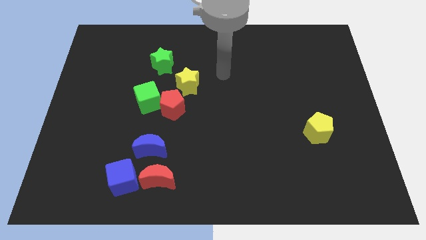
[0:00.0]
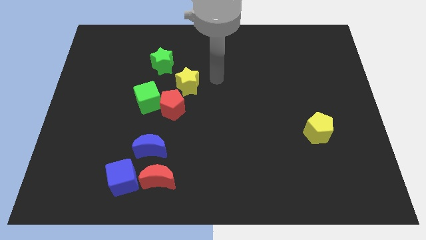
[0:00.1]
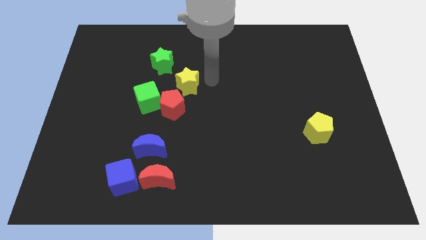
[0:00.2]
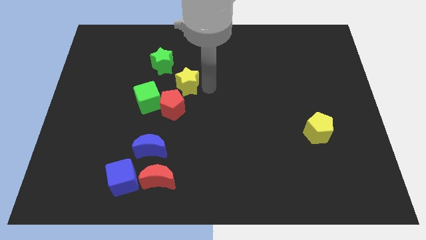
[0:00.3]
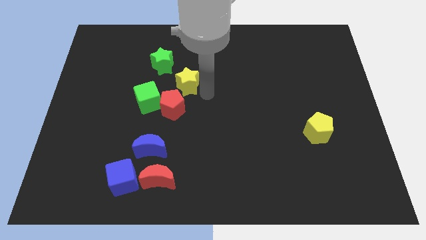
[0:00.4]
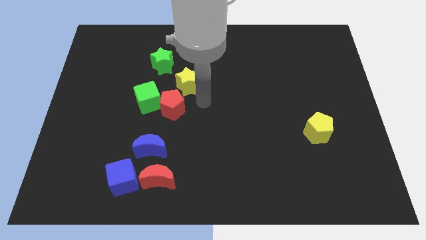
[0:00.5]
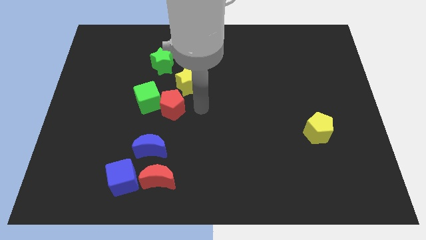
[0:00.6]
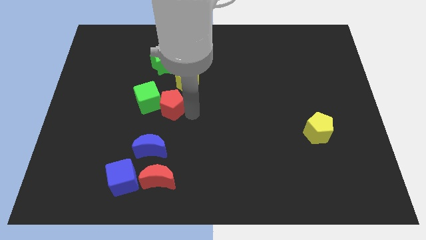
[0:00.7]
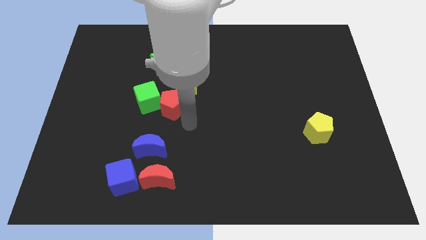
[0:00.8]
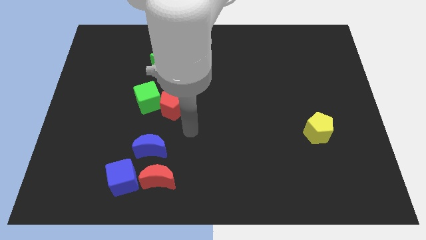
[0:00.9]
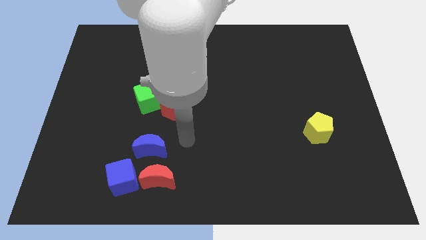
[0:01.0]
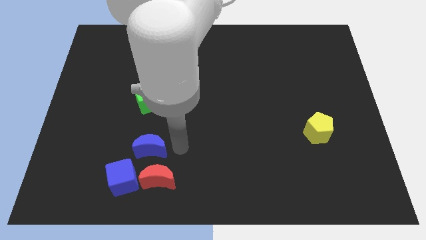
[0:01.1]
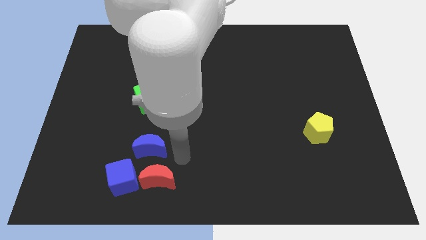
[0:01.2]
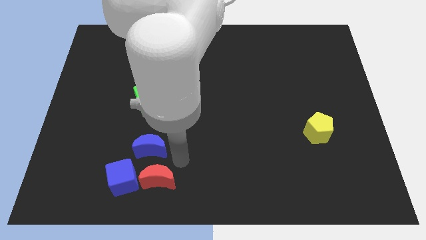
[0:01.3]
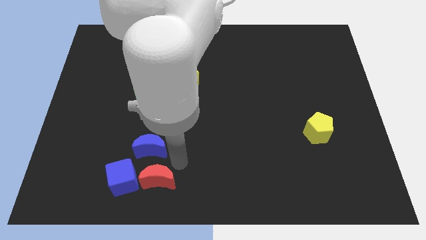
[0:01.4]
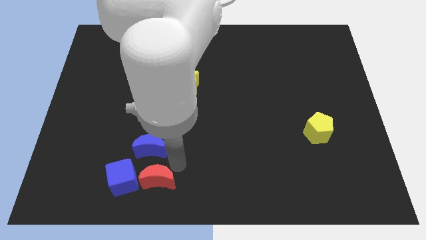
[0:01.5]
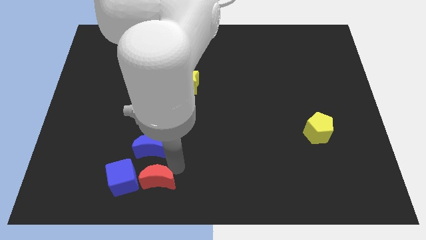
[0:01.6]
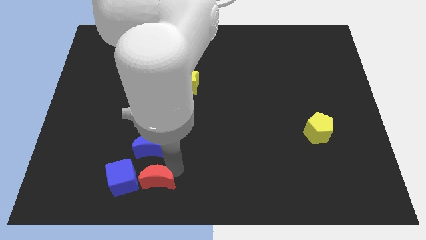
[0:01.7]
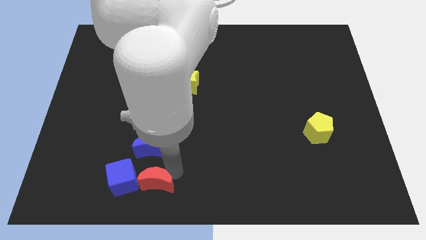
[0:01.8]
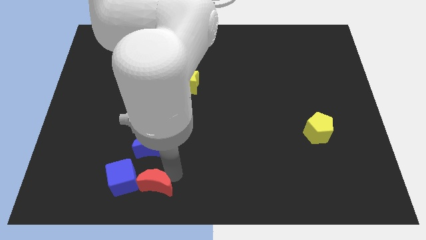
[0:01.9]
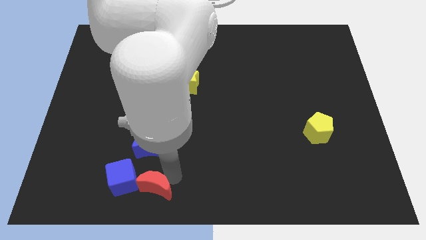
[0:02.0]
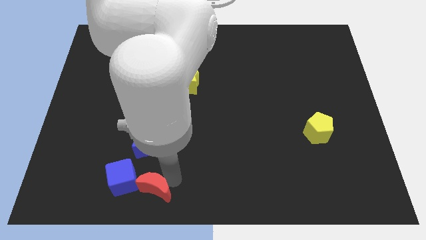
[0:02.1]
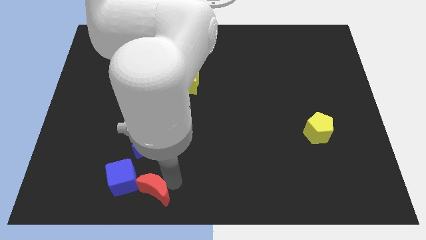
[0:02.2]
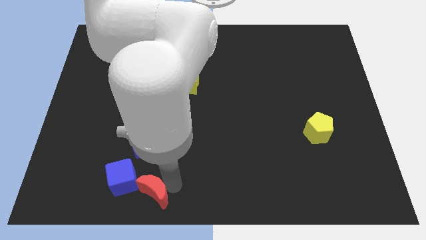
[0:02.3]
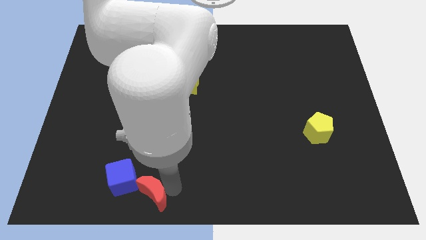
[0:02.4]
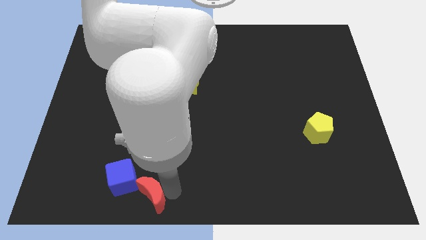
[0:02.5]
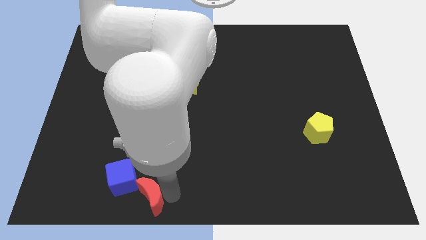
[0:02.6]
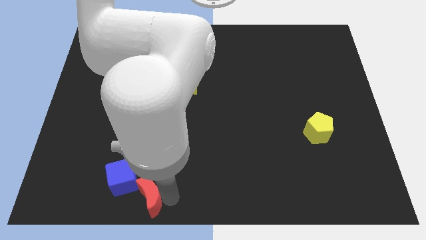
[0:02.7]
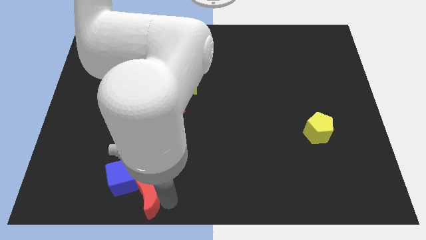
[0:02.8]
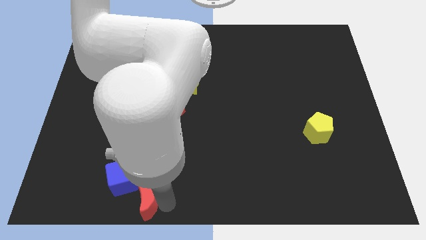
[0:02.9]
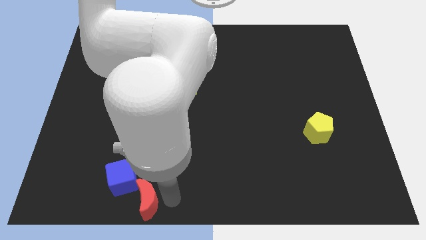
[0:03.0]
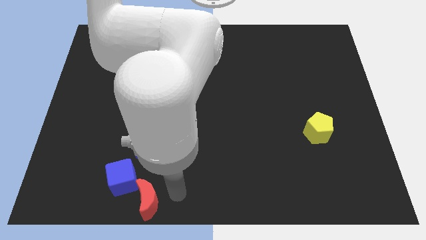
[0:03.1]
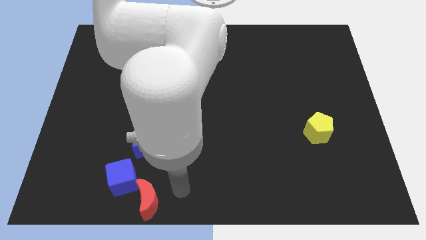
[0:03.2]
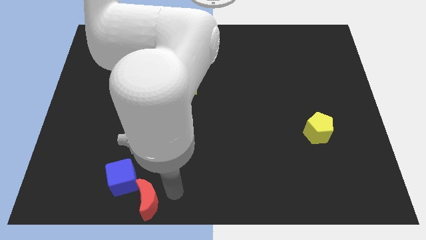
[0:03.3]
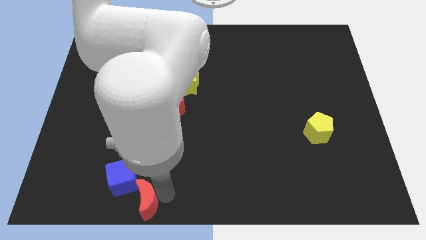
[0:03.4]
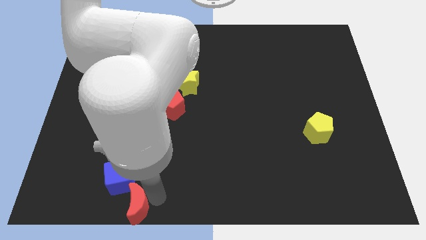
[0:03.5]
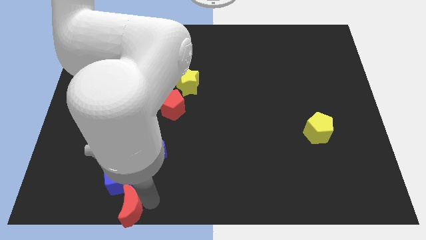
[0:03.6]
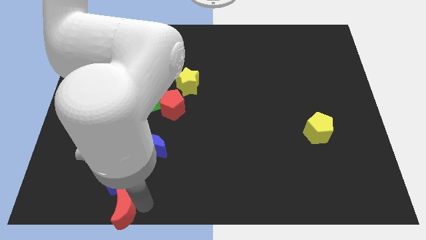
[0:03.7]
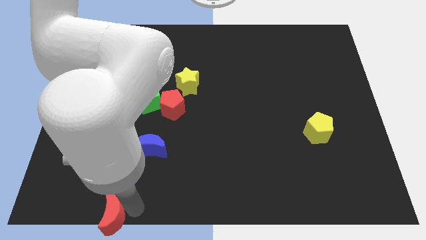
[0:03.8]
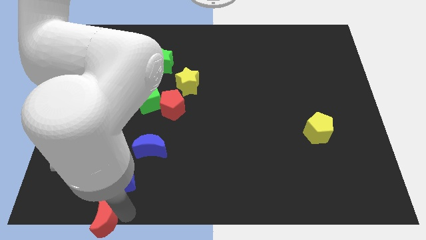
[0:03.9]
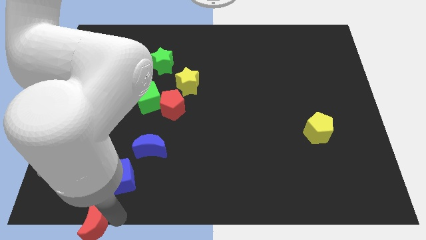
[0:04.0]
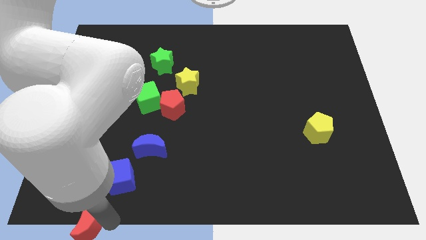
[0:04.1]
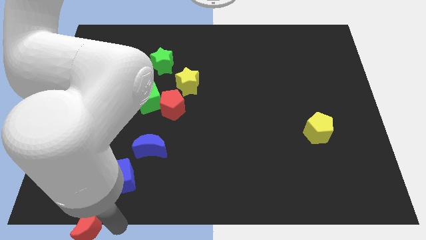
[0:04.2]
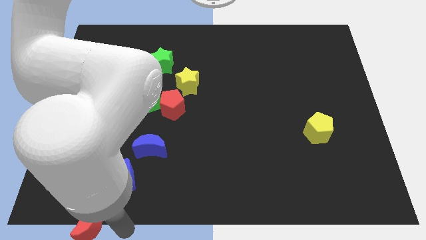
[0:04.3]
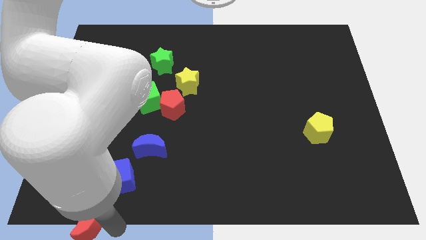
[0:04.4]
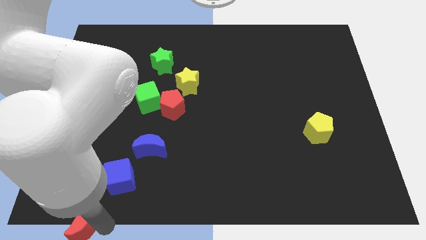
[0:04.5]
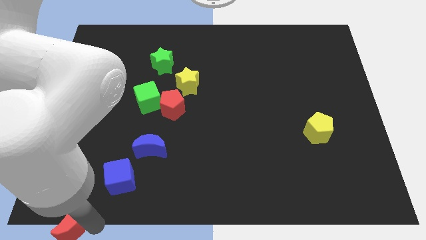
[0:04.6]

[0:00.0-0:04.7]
slide the red moon to the bottom left corner

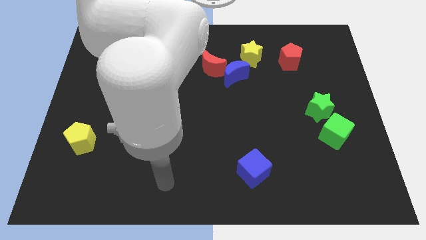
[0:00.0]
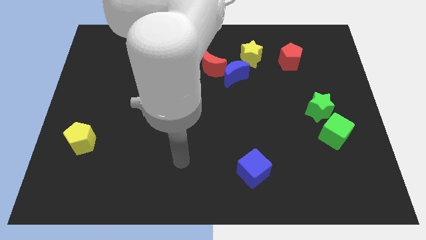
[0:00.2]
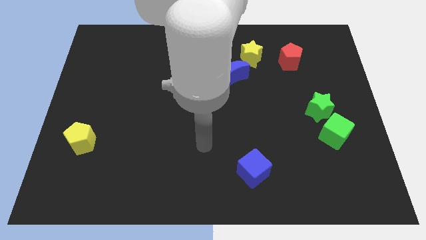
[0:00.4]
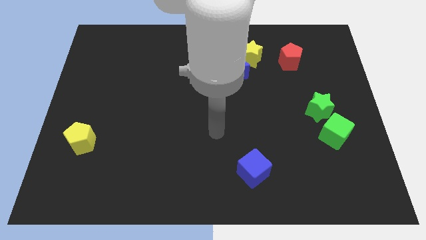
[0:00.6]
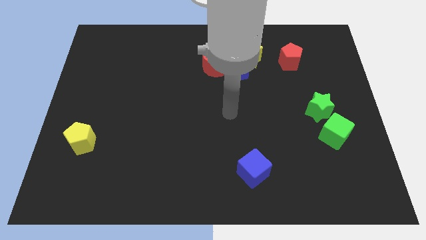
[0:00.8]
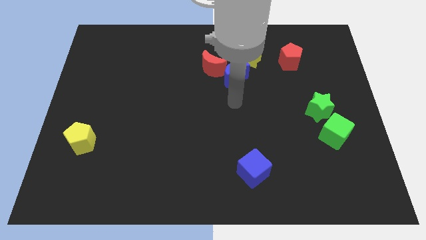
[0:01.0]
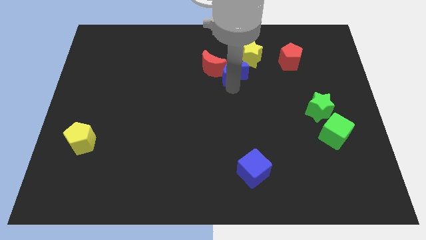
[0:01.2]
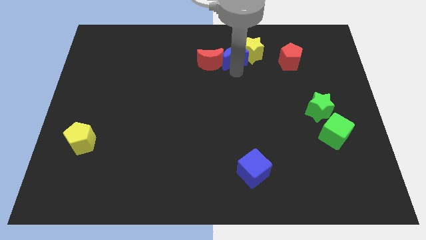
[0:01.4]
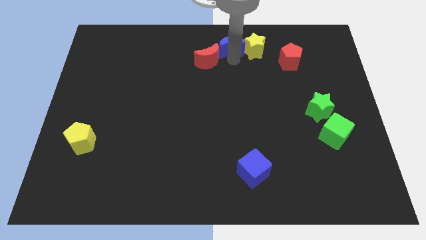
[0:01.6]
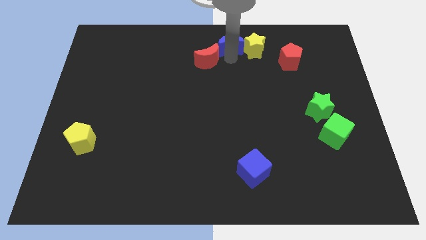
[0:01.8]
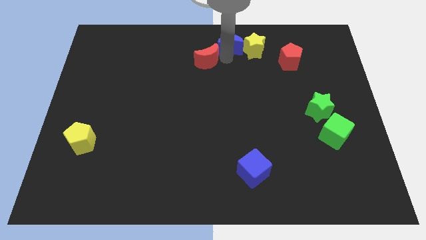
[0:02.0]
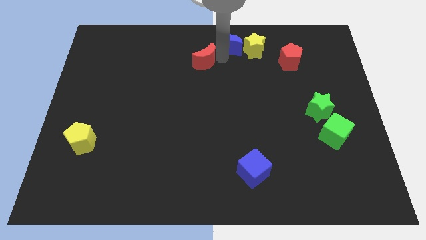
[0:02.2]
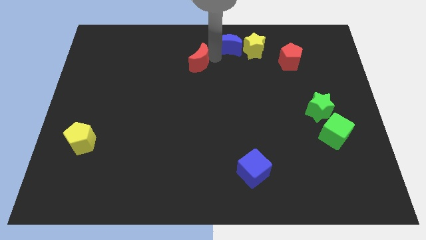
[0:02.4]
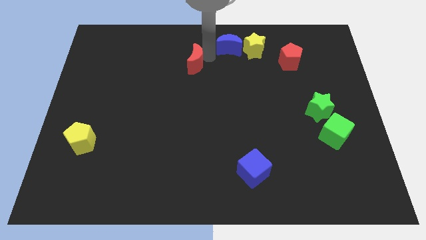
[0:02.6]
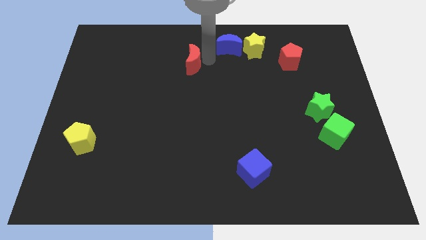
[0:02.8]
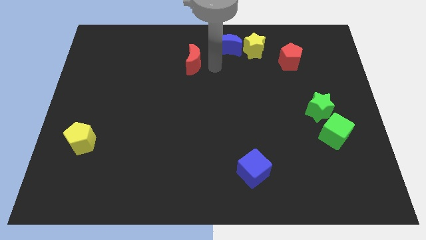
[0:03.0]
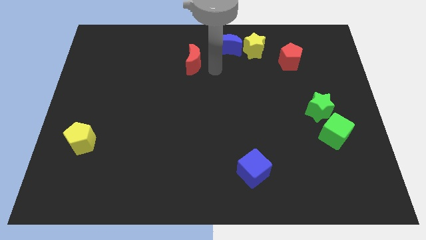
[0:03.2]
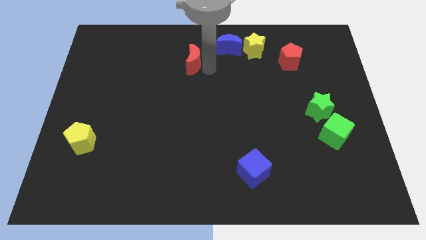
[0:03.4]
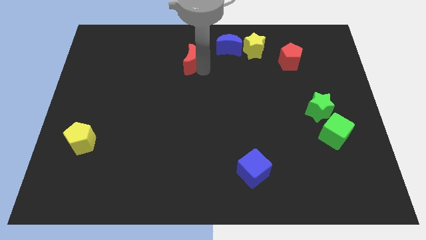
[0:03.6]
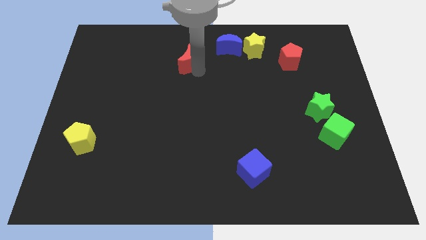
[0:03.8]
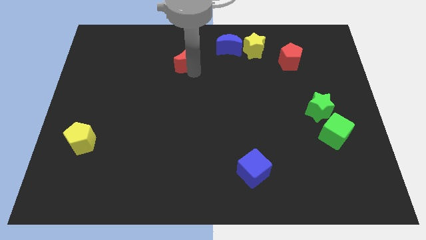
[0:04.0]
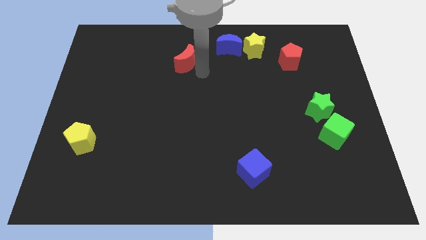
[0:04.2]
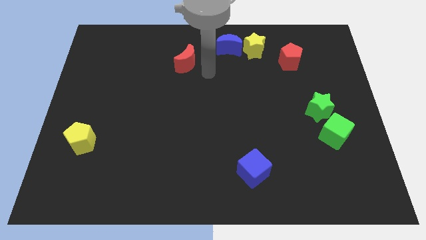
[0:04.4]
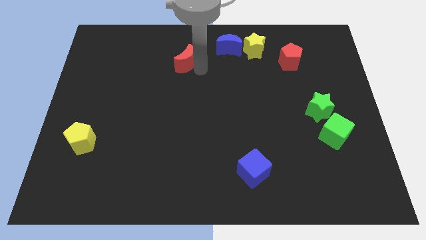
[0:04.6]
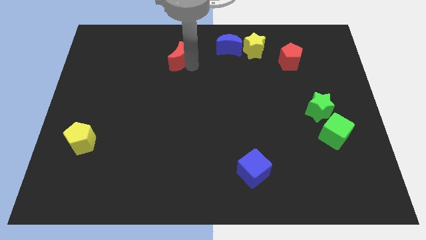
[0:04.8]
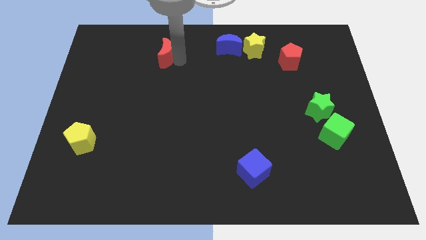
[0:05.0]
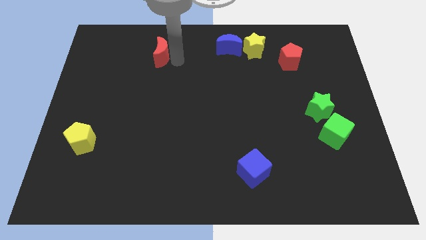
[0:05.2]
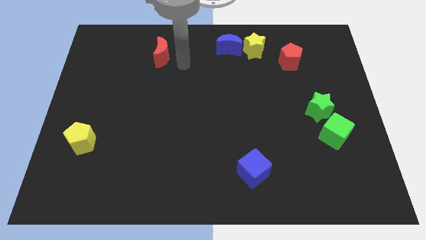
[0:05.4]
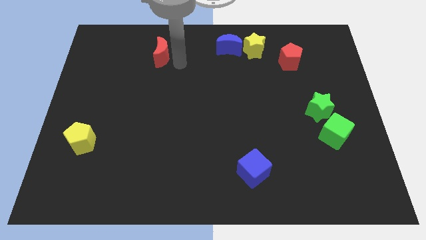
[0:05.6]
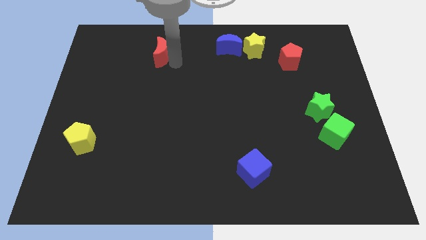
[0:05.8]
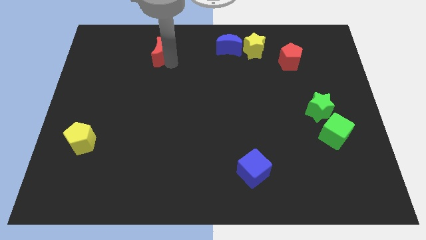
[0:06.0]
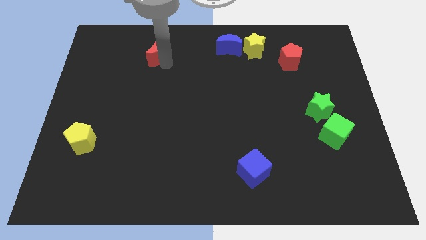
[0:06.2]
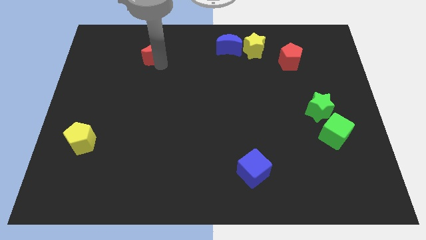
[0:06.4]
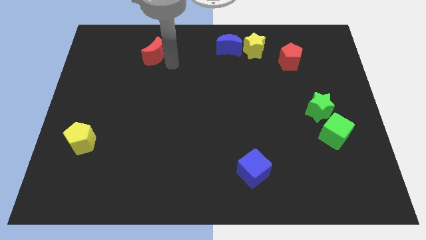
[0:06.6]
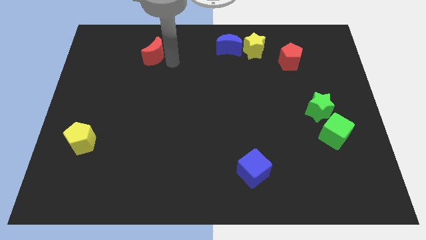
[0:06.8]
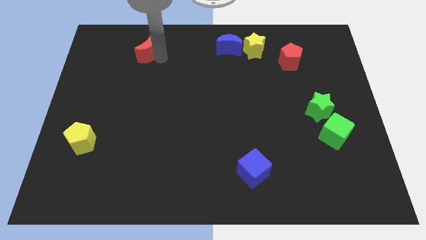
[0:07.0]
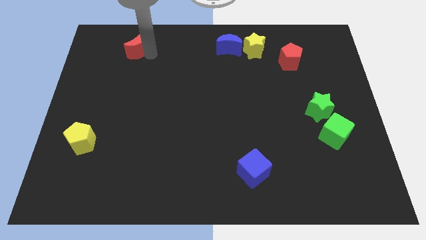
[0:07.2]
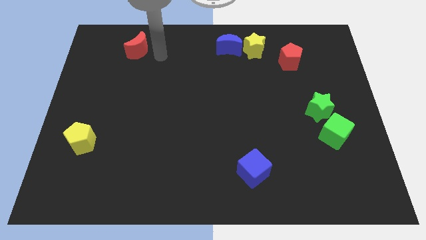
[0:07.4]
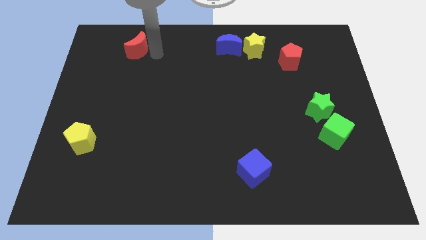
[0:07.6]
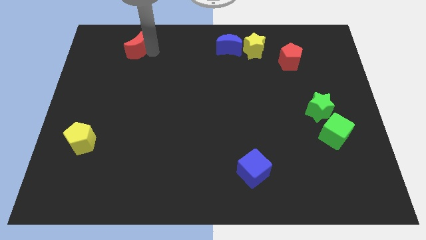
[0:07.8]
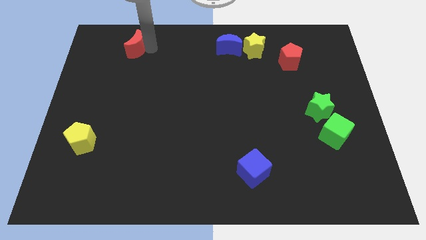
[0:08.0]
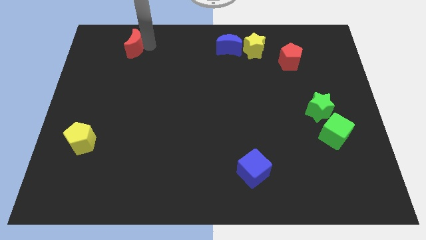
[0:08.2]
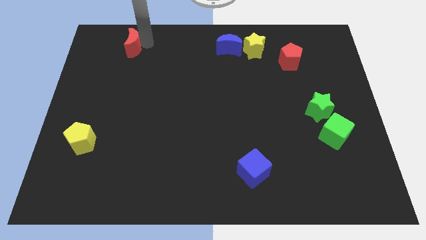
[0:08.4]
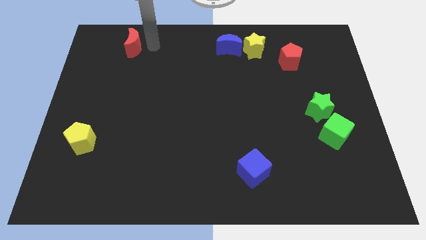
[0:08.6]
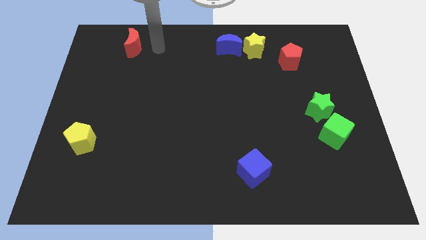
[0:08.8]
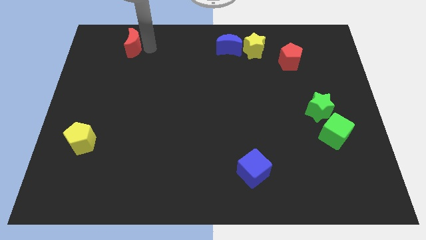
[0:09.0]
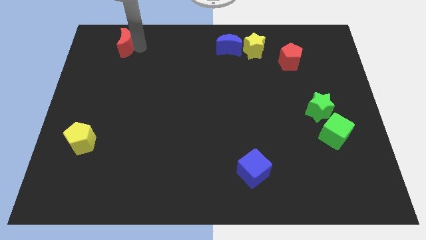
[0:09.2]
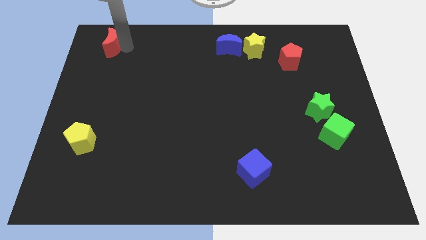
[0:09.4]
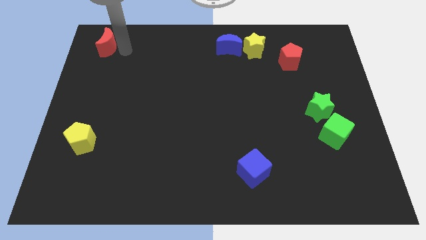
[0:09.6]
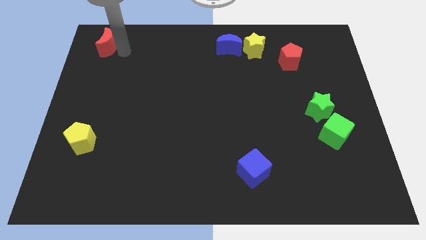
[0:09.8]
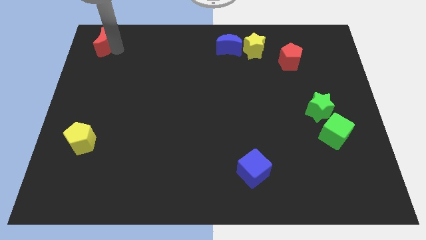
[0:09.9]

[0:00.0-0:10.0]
move the red moon to the top left corner
